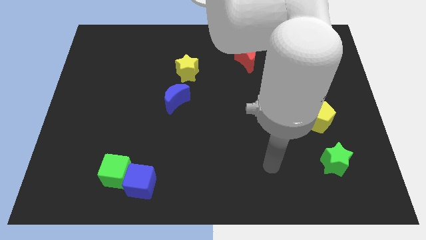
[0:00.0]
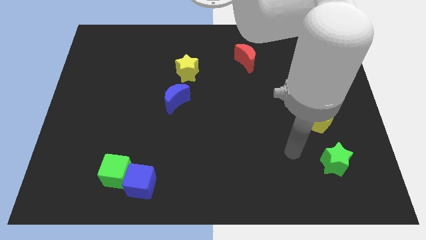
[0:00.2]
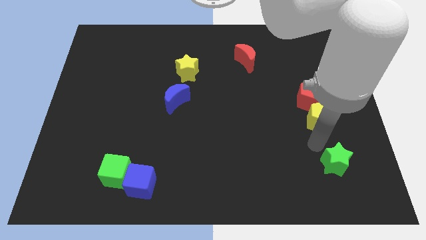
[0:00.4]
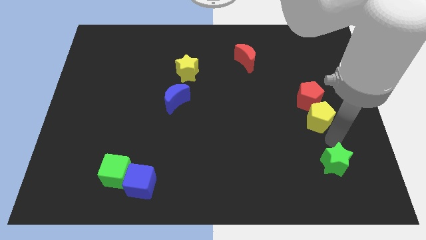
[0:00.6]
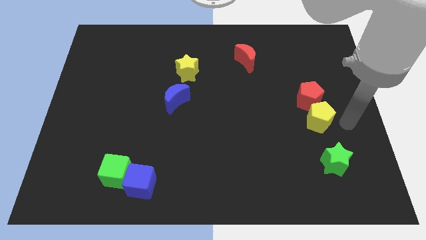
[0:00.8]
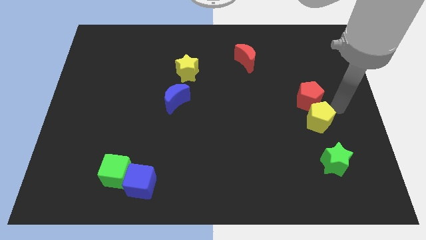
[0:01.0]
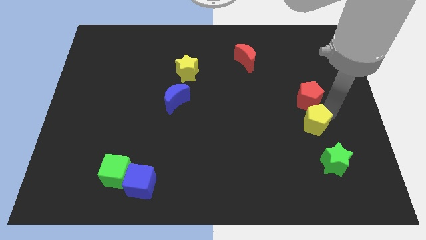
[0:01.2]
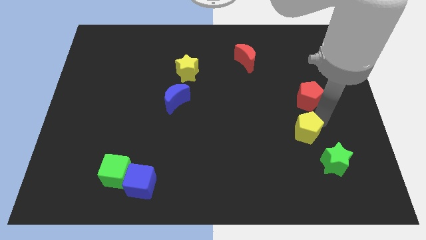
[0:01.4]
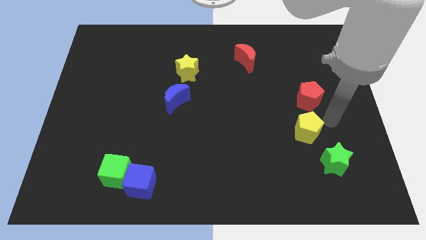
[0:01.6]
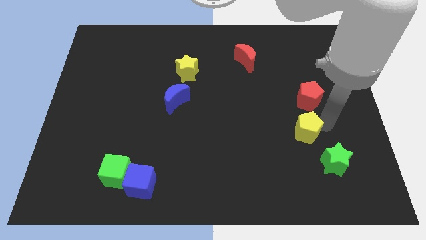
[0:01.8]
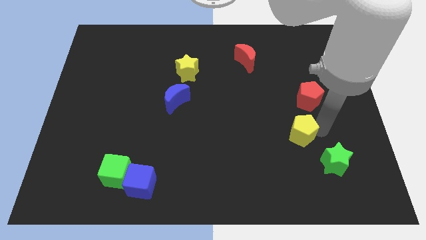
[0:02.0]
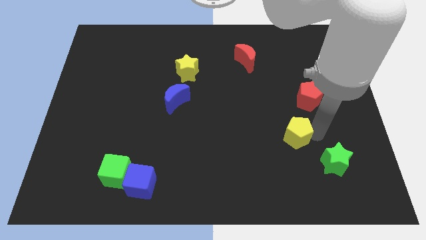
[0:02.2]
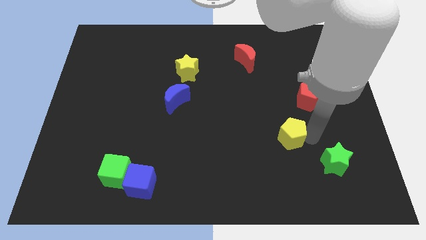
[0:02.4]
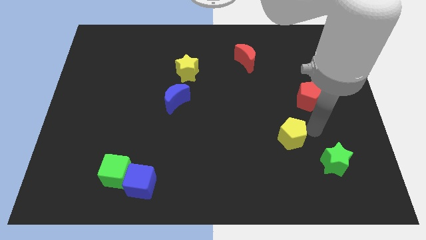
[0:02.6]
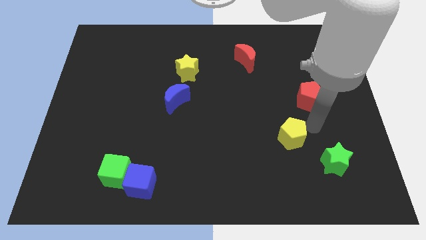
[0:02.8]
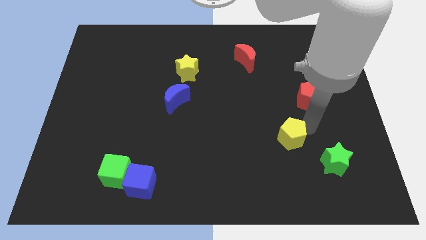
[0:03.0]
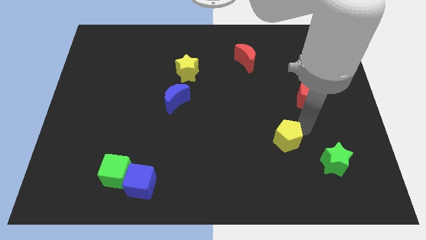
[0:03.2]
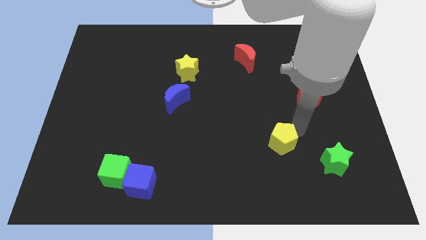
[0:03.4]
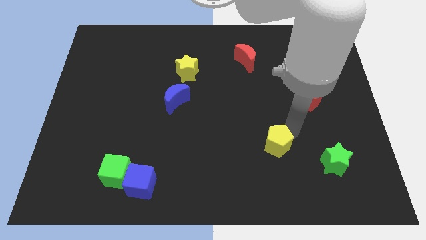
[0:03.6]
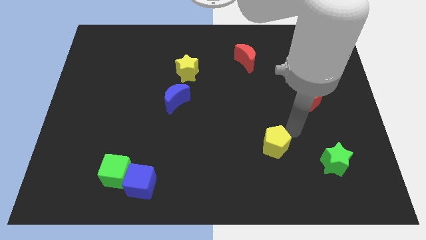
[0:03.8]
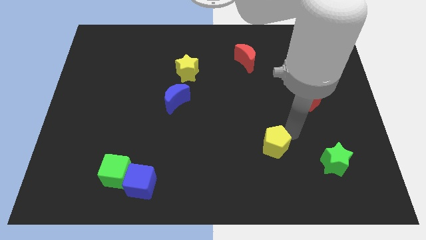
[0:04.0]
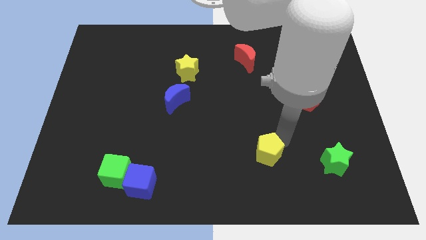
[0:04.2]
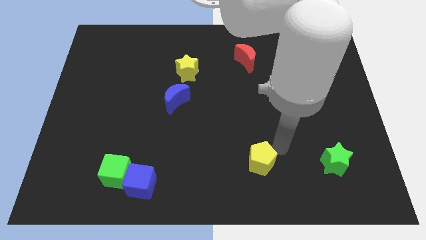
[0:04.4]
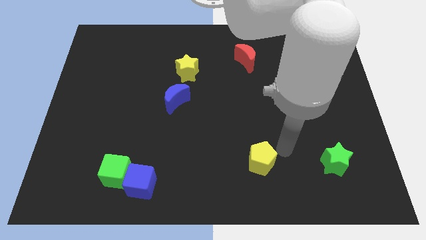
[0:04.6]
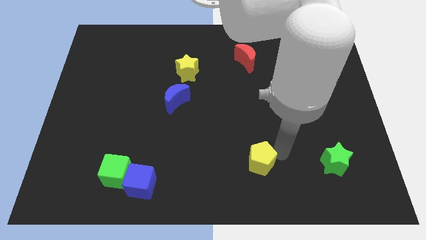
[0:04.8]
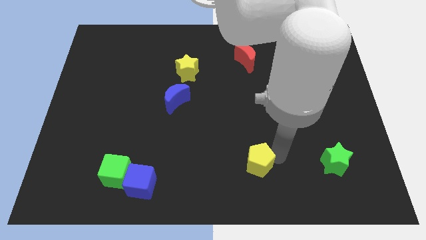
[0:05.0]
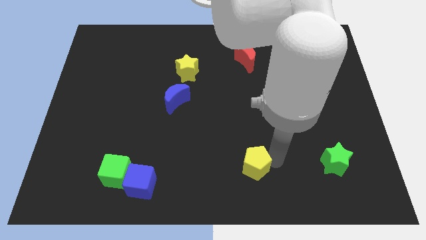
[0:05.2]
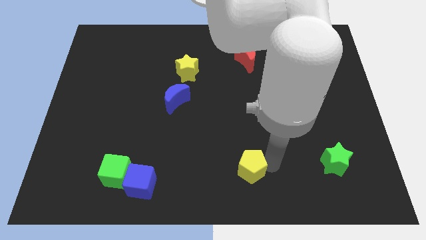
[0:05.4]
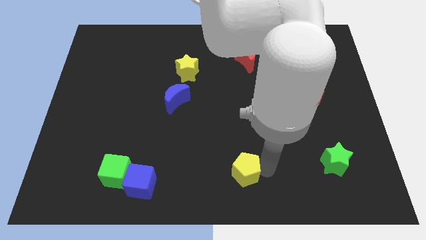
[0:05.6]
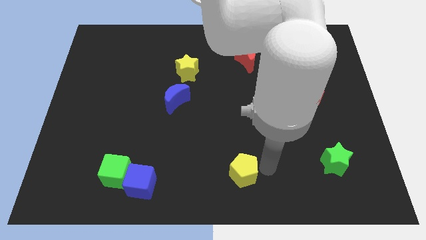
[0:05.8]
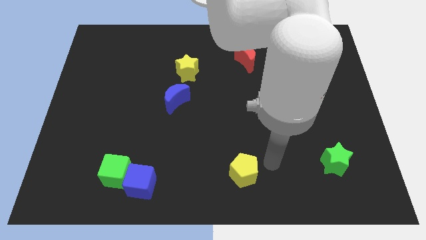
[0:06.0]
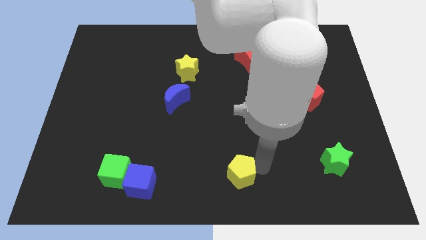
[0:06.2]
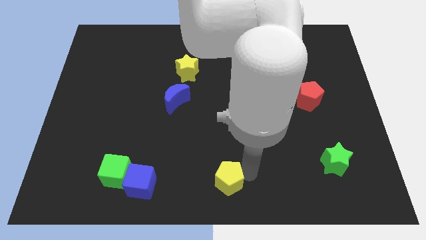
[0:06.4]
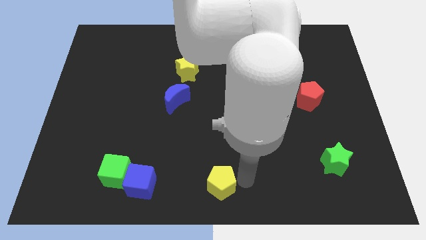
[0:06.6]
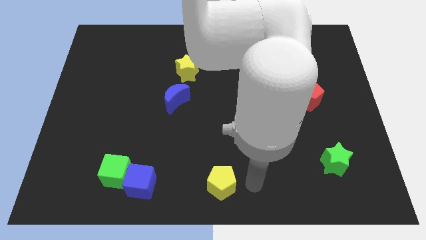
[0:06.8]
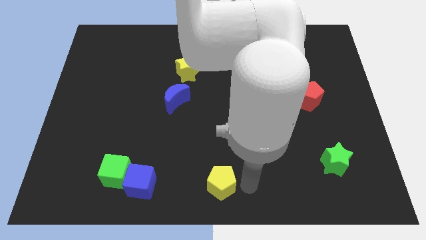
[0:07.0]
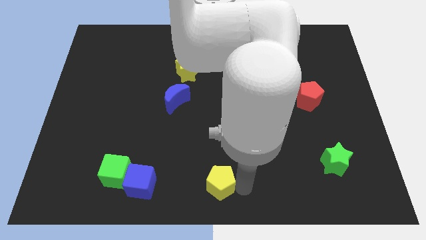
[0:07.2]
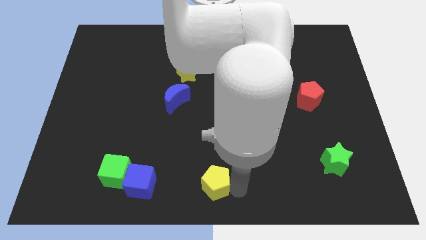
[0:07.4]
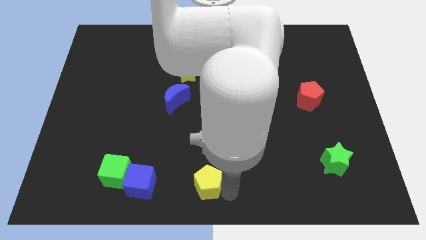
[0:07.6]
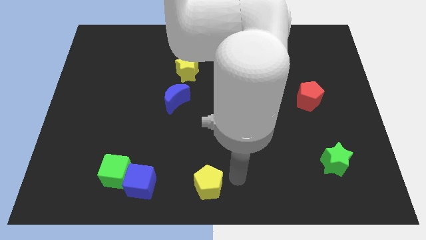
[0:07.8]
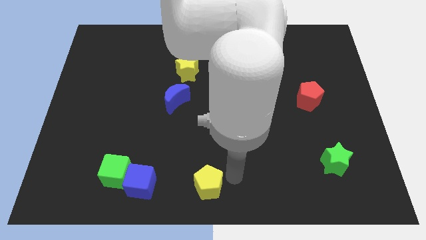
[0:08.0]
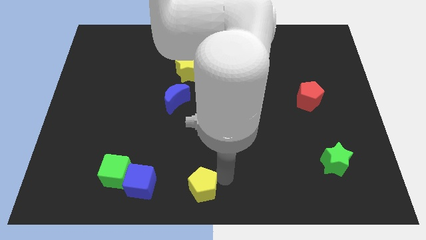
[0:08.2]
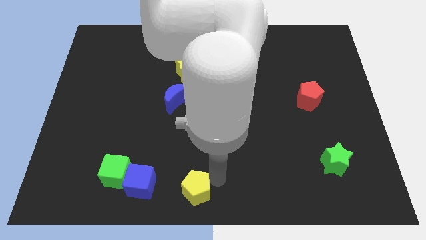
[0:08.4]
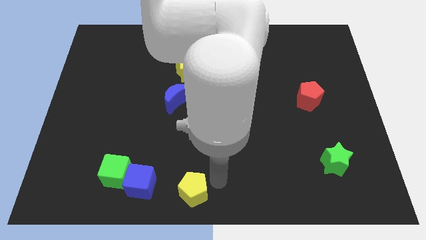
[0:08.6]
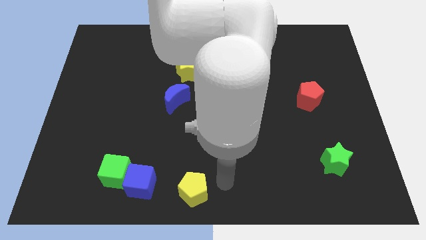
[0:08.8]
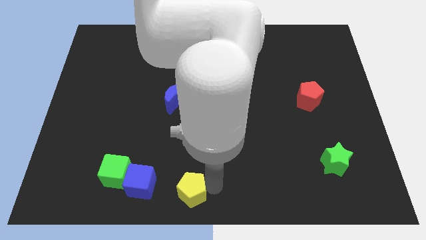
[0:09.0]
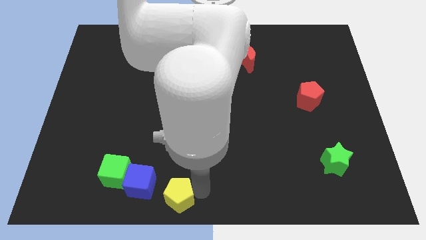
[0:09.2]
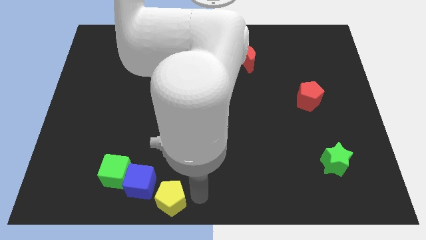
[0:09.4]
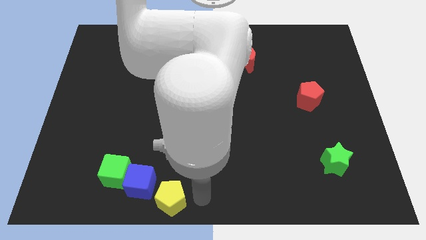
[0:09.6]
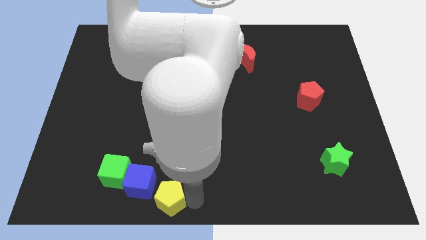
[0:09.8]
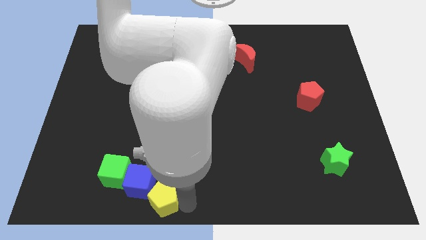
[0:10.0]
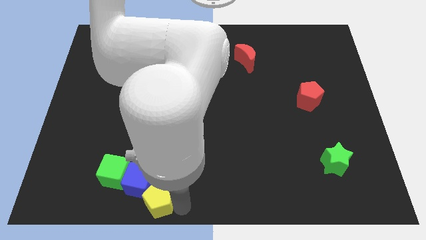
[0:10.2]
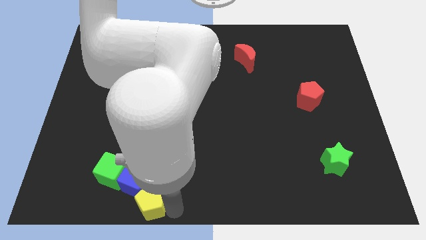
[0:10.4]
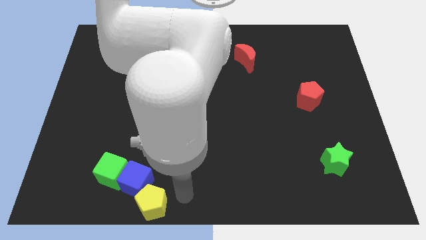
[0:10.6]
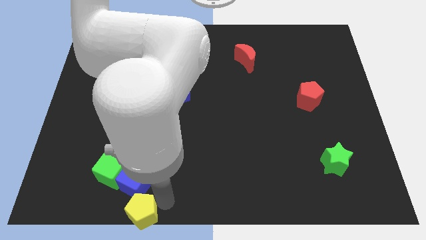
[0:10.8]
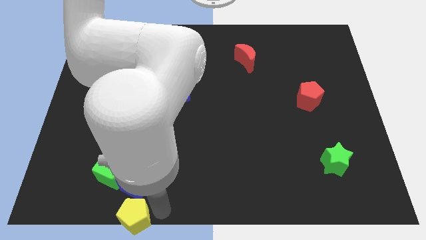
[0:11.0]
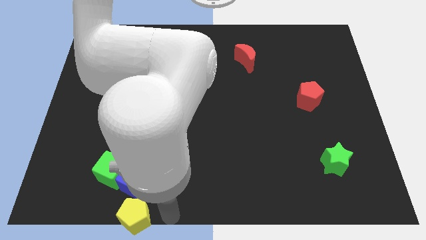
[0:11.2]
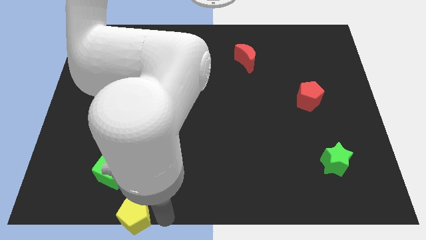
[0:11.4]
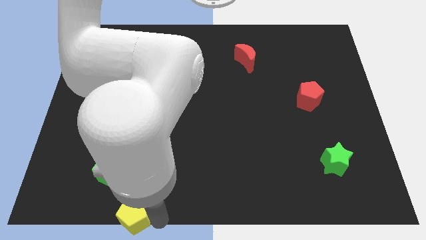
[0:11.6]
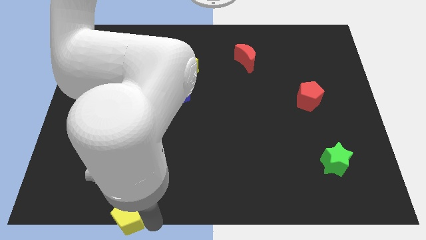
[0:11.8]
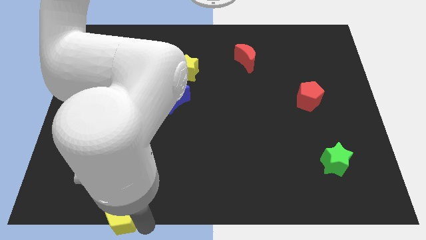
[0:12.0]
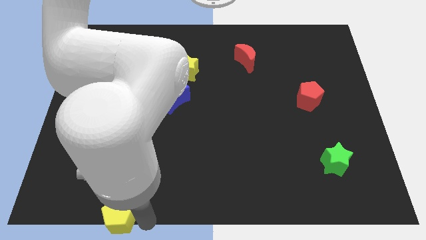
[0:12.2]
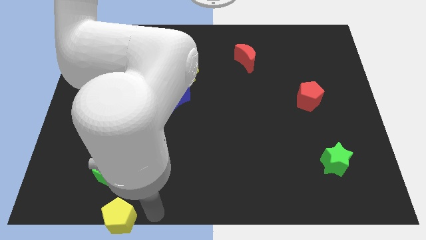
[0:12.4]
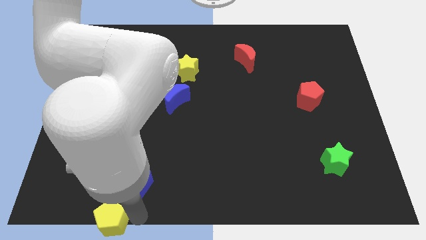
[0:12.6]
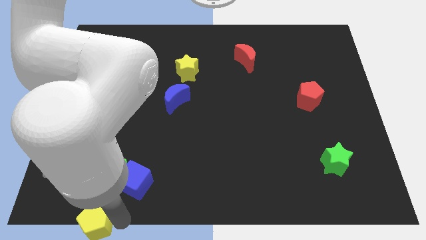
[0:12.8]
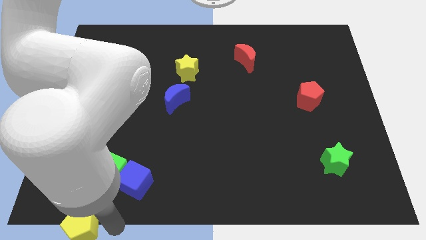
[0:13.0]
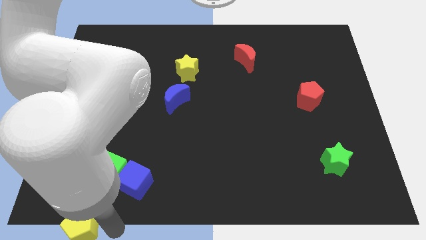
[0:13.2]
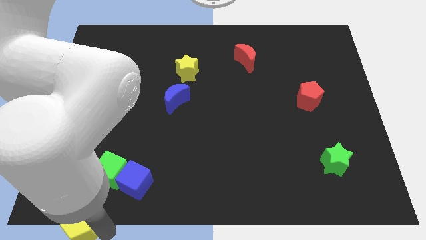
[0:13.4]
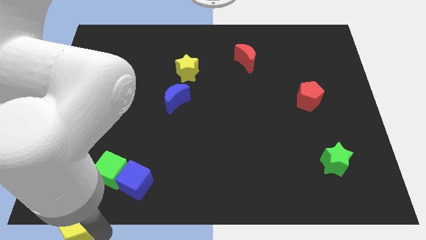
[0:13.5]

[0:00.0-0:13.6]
slide the yellow pentagon to the bottom left
